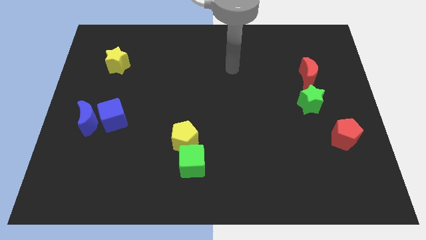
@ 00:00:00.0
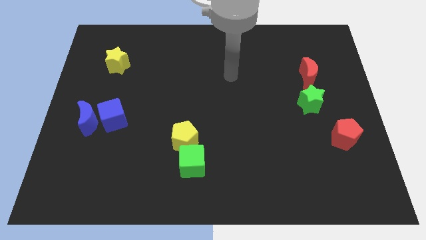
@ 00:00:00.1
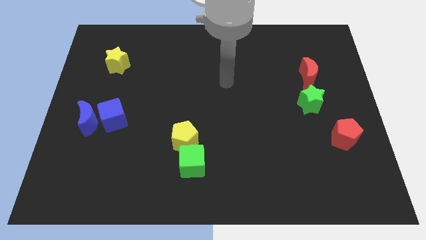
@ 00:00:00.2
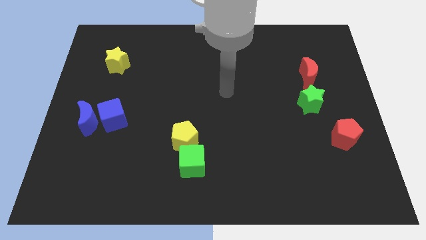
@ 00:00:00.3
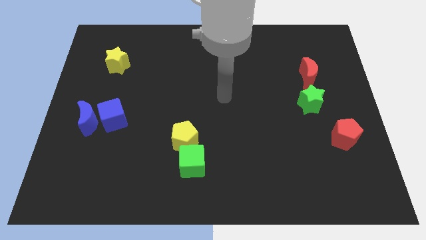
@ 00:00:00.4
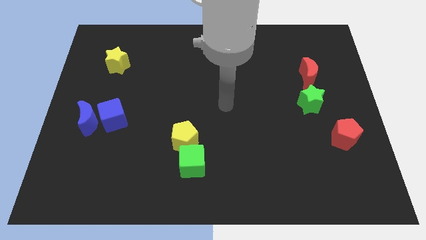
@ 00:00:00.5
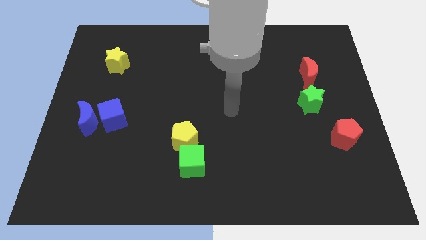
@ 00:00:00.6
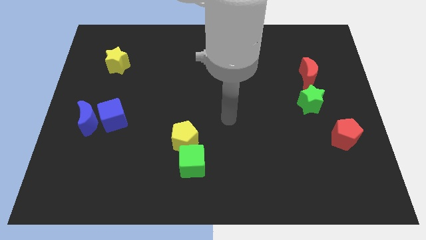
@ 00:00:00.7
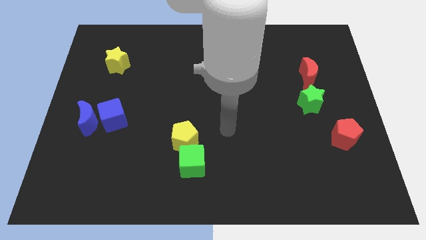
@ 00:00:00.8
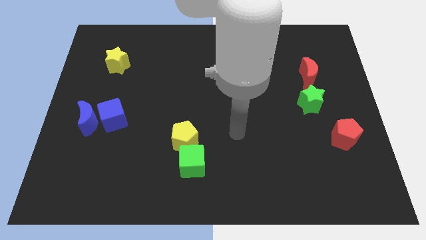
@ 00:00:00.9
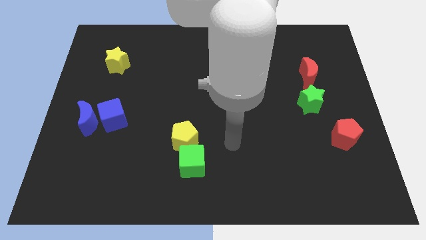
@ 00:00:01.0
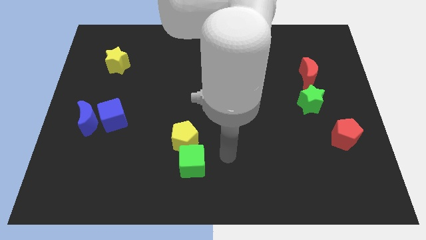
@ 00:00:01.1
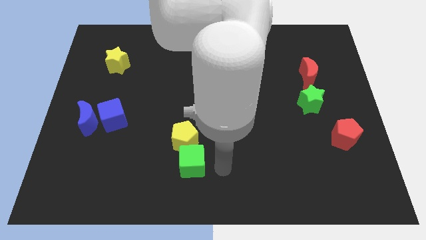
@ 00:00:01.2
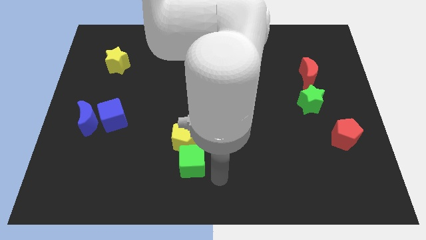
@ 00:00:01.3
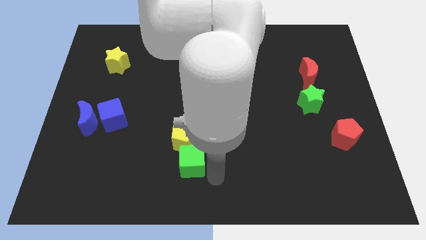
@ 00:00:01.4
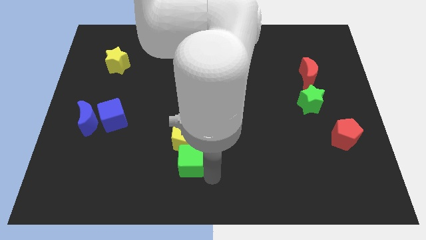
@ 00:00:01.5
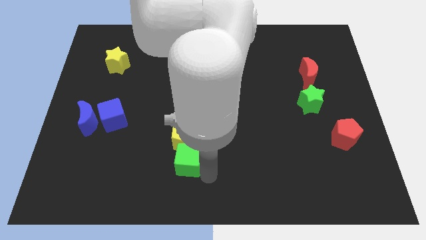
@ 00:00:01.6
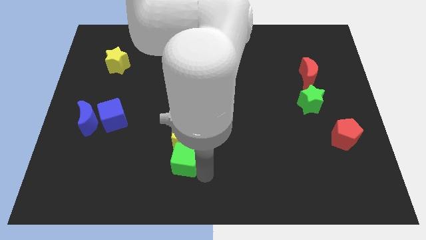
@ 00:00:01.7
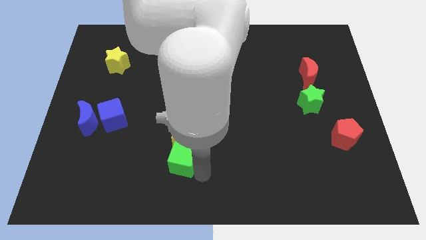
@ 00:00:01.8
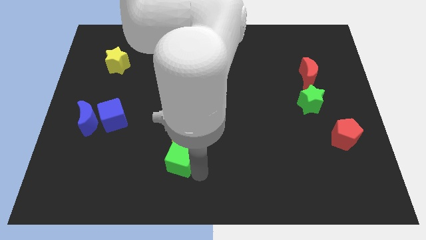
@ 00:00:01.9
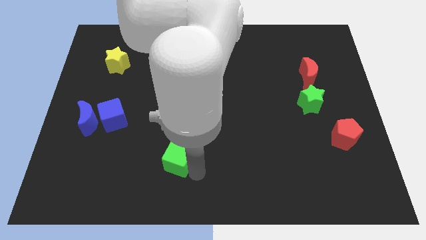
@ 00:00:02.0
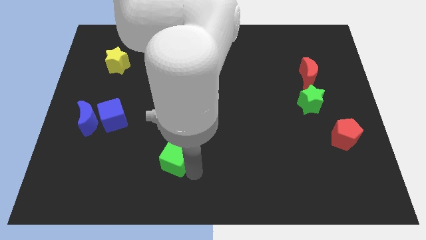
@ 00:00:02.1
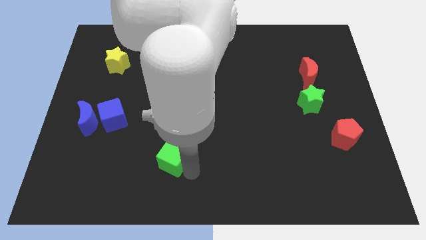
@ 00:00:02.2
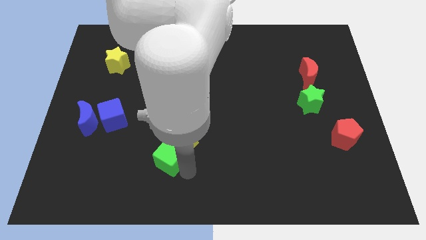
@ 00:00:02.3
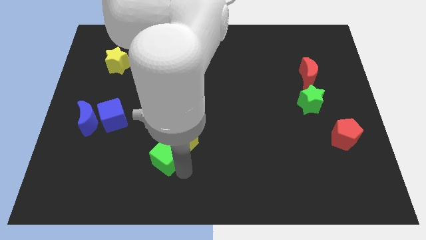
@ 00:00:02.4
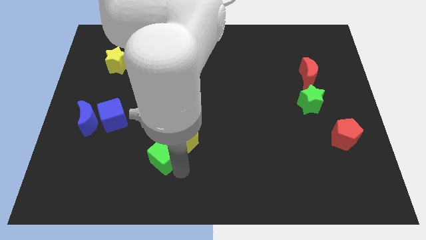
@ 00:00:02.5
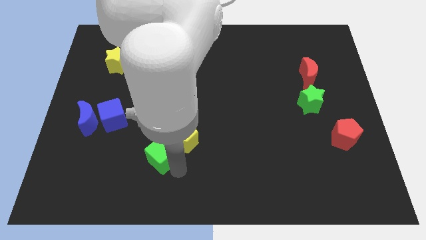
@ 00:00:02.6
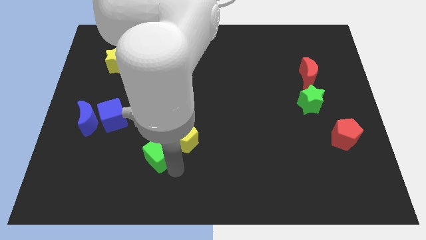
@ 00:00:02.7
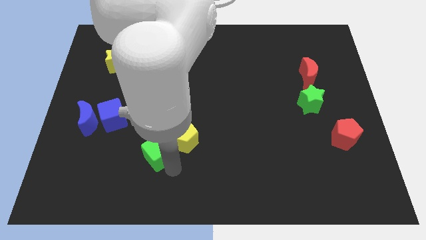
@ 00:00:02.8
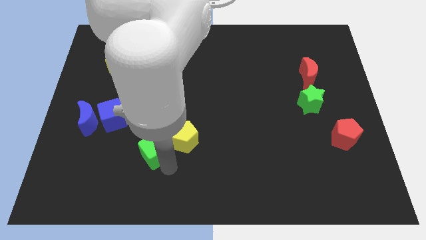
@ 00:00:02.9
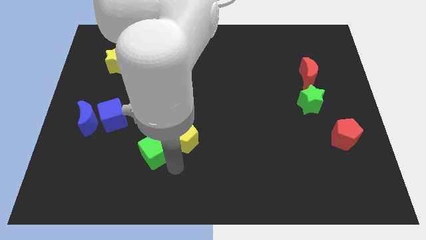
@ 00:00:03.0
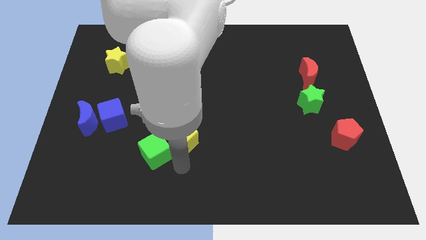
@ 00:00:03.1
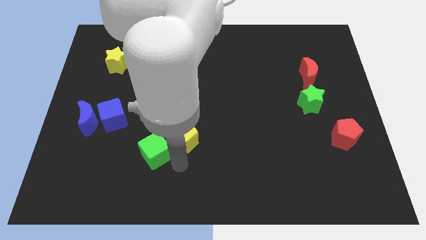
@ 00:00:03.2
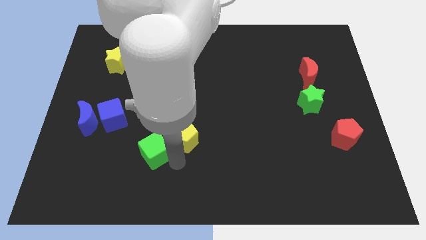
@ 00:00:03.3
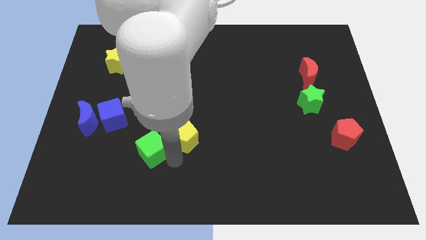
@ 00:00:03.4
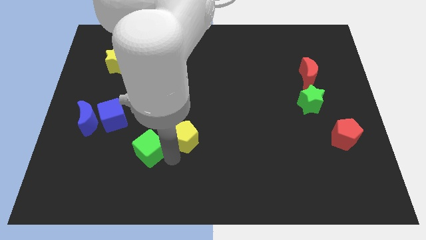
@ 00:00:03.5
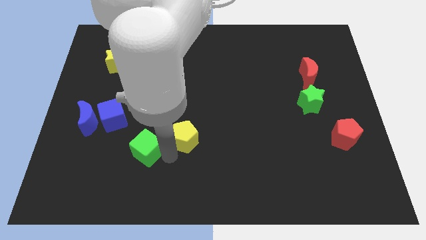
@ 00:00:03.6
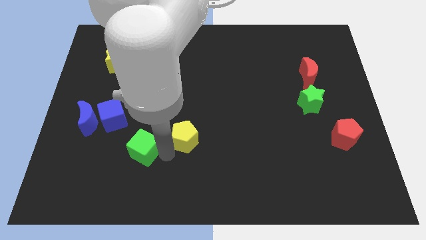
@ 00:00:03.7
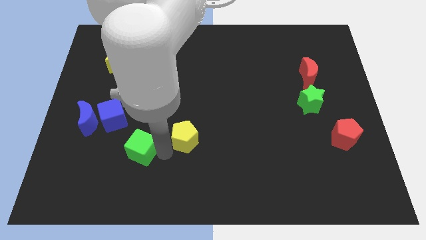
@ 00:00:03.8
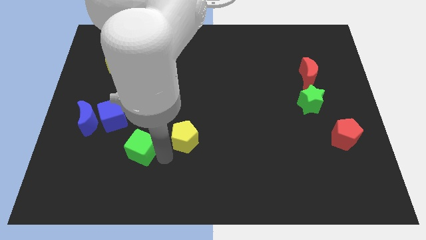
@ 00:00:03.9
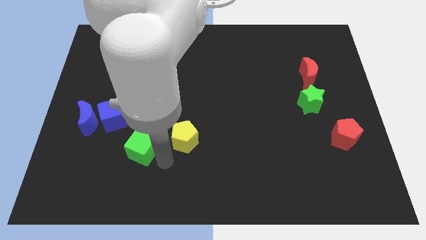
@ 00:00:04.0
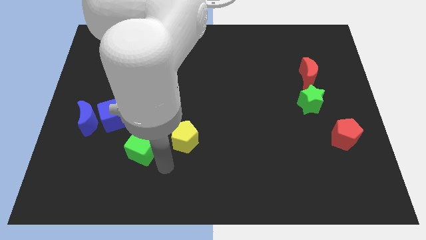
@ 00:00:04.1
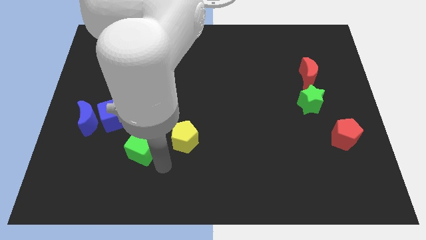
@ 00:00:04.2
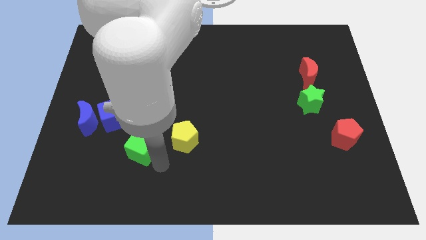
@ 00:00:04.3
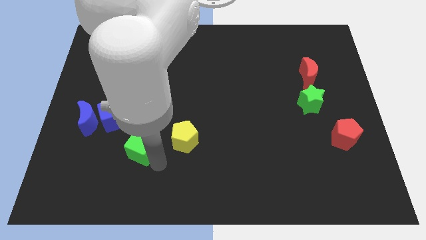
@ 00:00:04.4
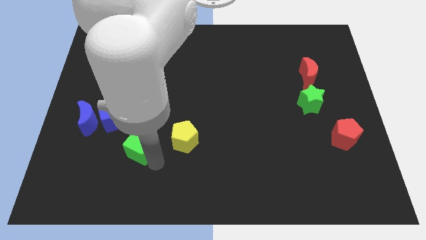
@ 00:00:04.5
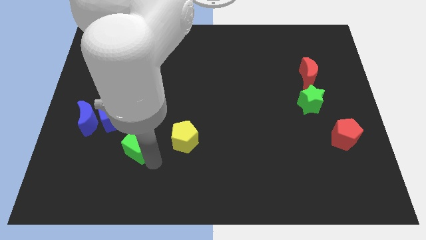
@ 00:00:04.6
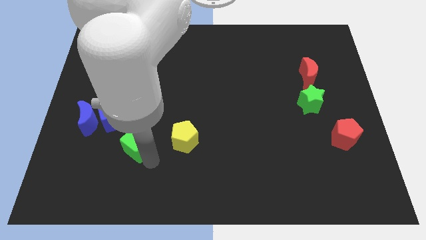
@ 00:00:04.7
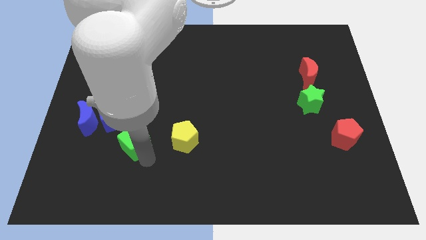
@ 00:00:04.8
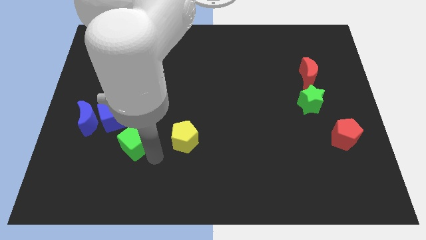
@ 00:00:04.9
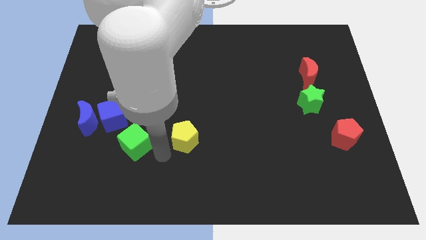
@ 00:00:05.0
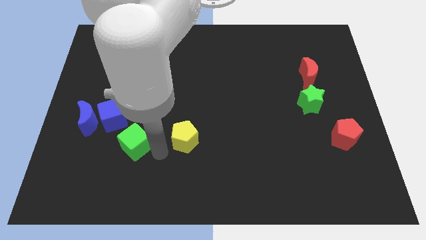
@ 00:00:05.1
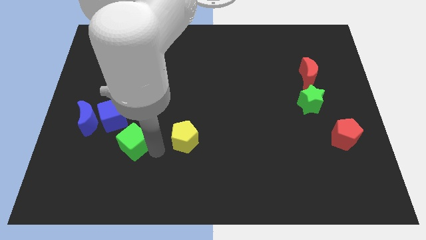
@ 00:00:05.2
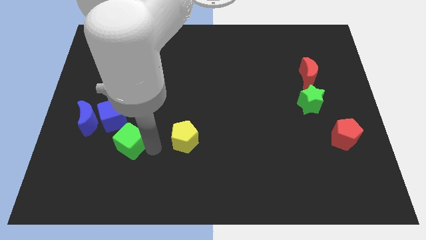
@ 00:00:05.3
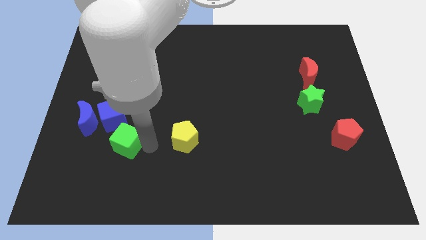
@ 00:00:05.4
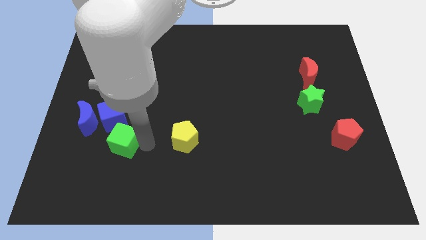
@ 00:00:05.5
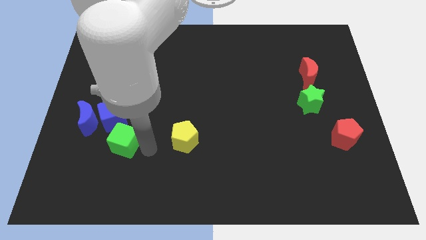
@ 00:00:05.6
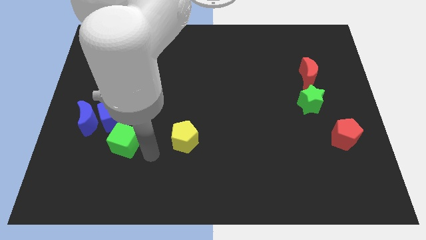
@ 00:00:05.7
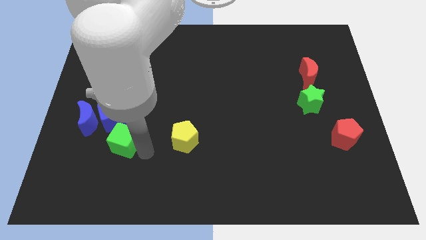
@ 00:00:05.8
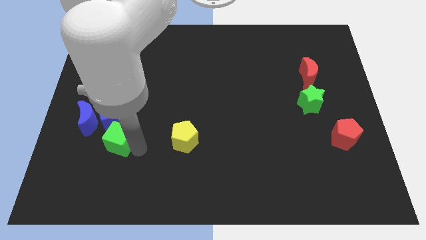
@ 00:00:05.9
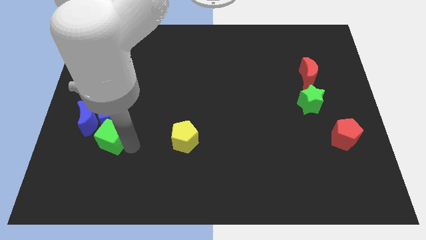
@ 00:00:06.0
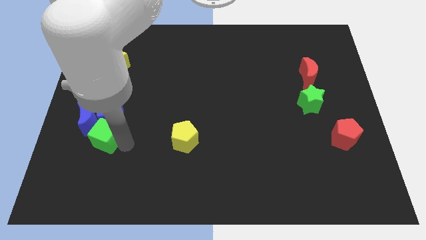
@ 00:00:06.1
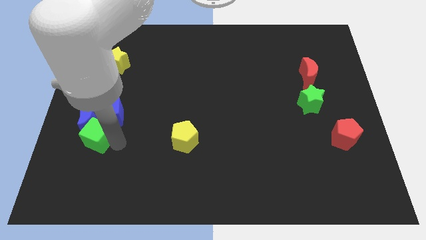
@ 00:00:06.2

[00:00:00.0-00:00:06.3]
move the green cube next to the blue moon
